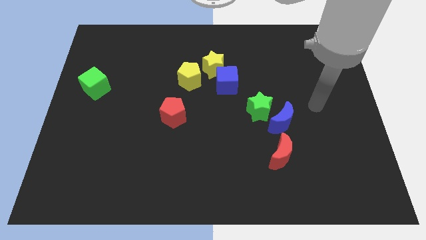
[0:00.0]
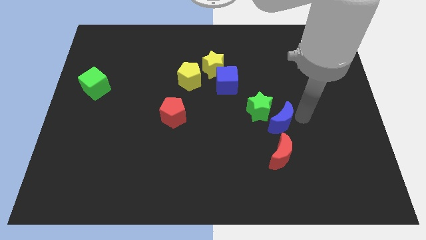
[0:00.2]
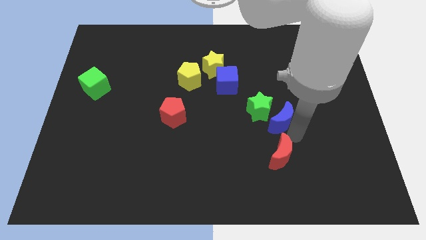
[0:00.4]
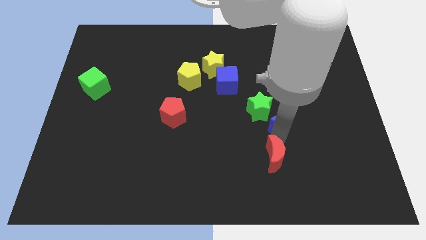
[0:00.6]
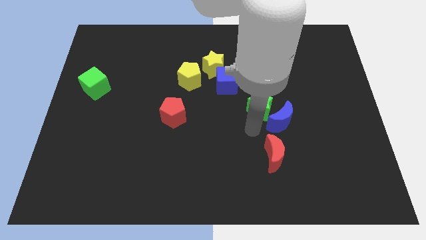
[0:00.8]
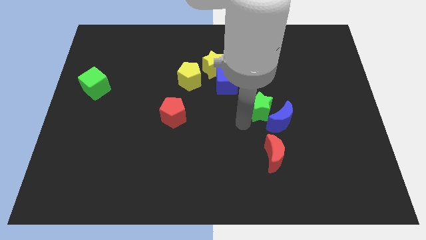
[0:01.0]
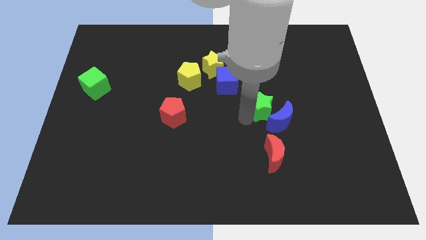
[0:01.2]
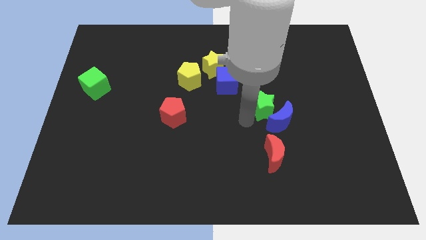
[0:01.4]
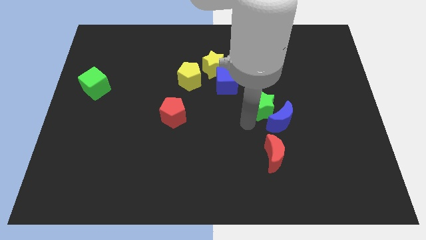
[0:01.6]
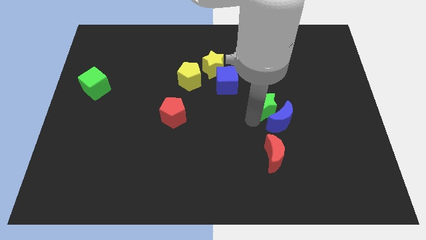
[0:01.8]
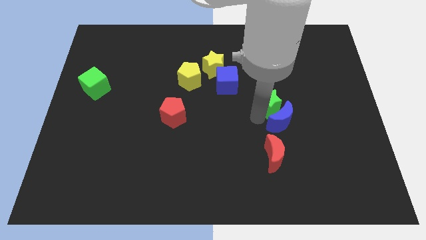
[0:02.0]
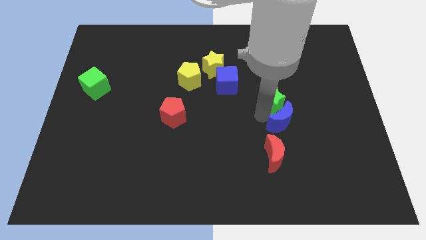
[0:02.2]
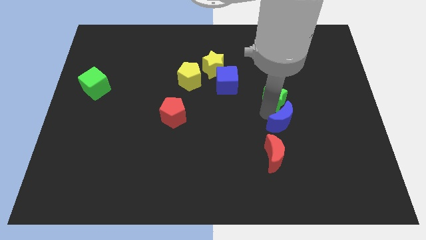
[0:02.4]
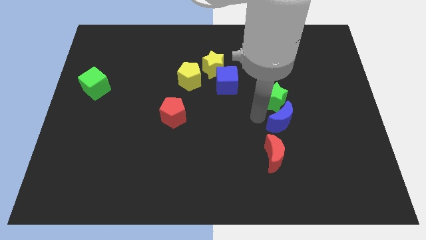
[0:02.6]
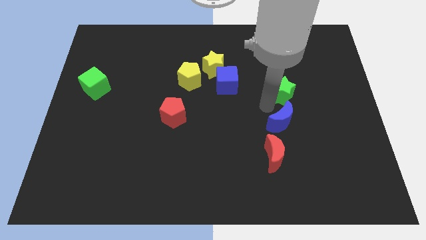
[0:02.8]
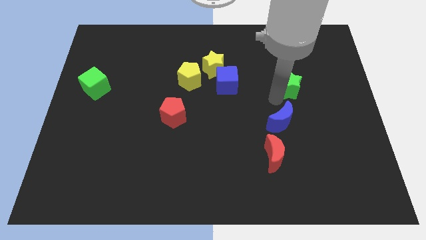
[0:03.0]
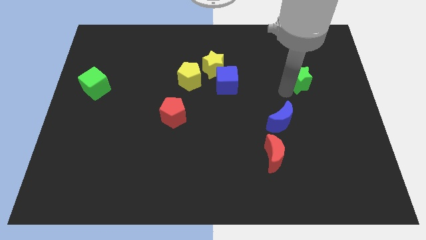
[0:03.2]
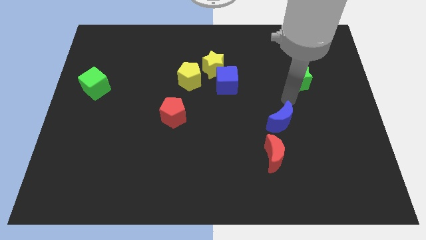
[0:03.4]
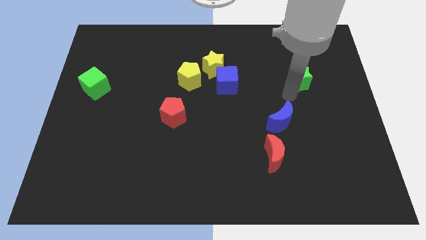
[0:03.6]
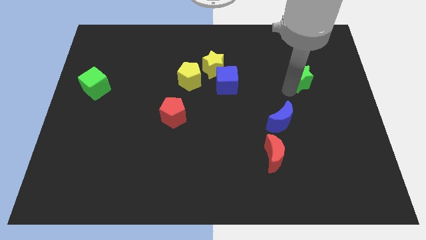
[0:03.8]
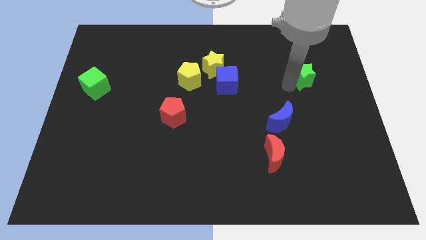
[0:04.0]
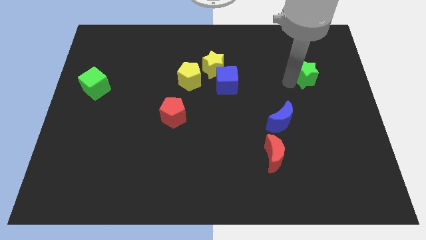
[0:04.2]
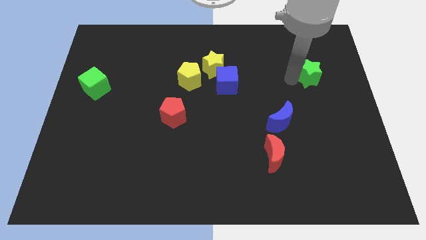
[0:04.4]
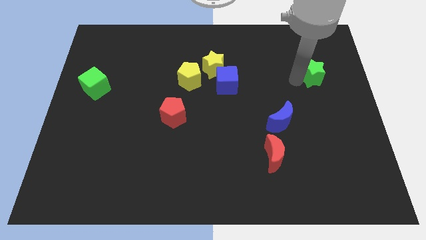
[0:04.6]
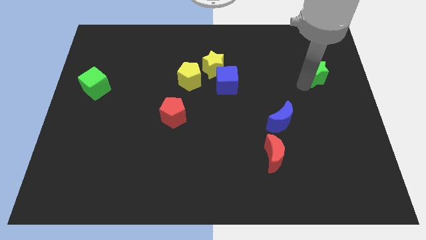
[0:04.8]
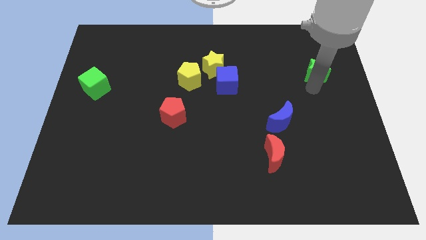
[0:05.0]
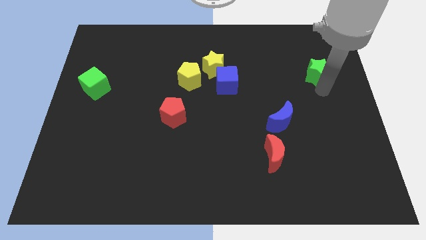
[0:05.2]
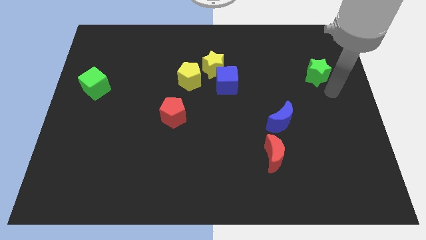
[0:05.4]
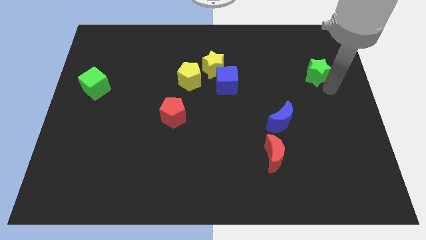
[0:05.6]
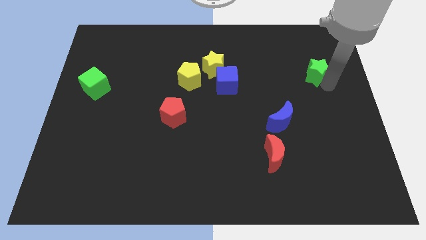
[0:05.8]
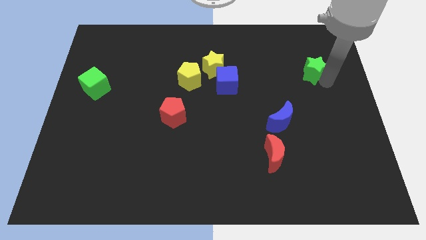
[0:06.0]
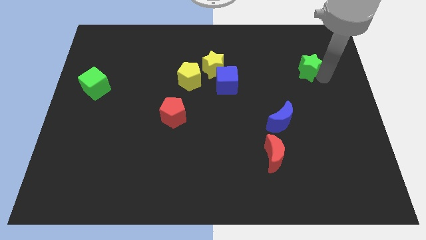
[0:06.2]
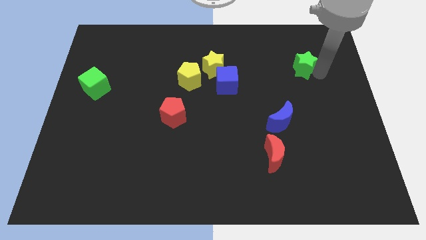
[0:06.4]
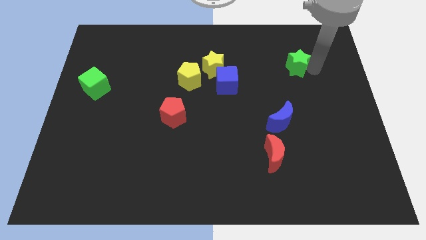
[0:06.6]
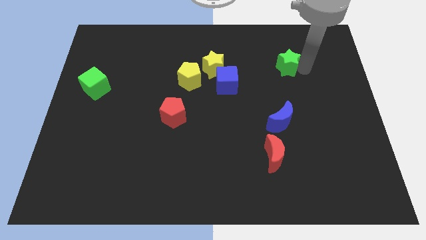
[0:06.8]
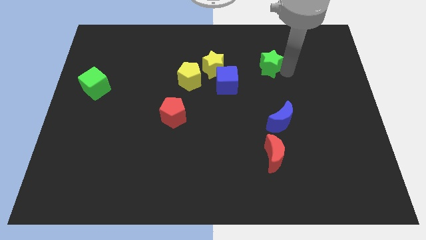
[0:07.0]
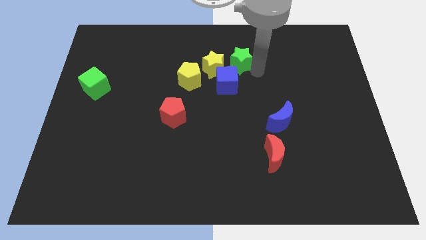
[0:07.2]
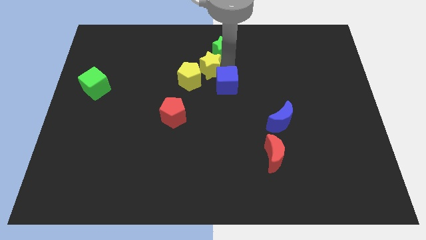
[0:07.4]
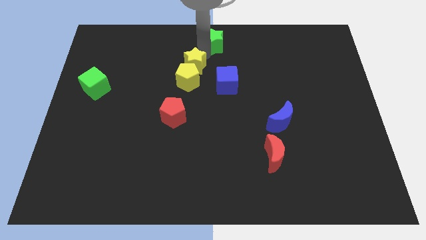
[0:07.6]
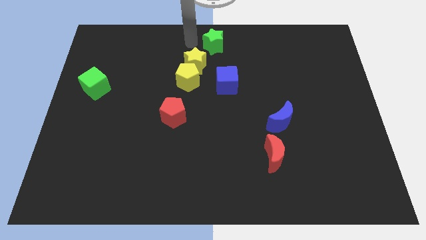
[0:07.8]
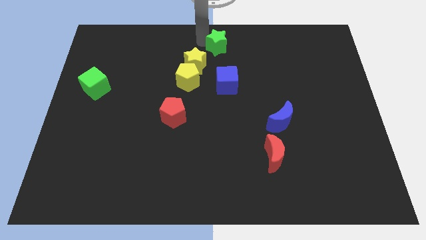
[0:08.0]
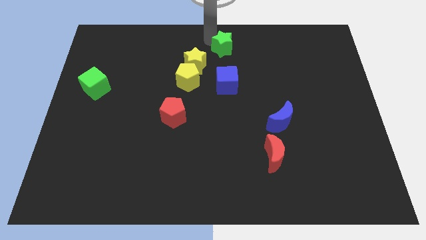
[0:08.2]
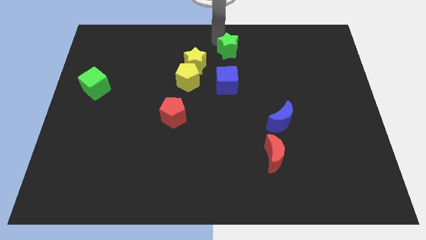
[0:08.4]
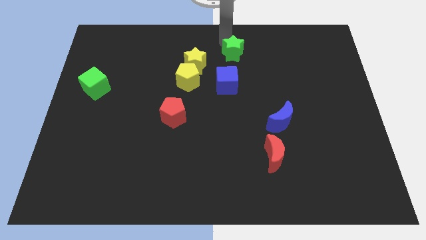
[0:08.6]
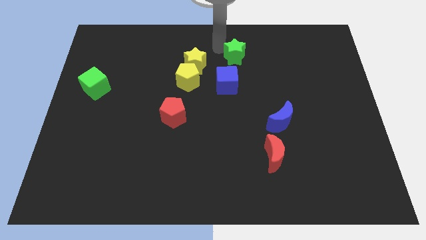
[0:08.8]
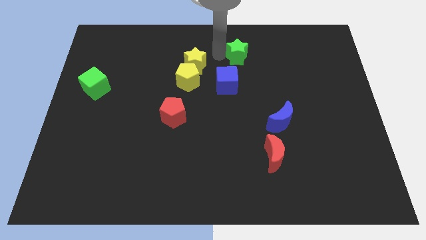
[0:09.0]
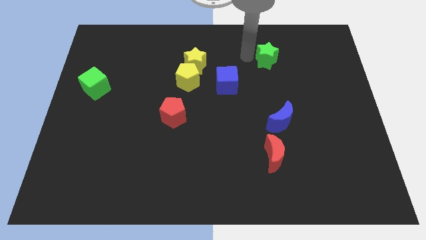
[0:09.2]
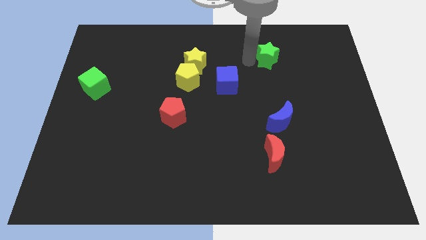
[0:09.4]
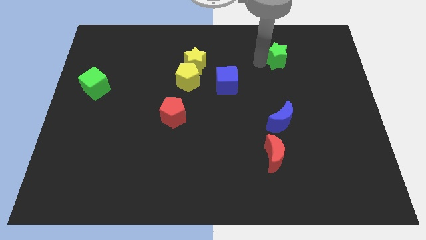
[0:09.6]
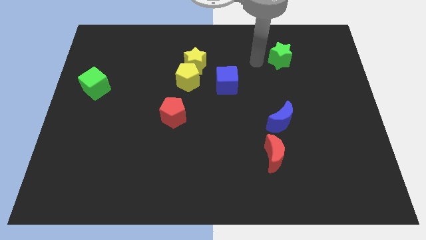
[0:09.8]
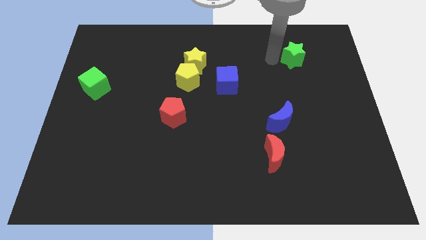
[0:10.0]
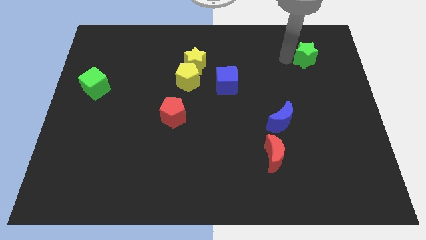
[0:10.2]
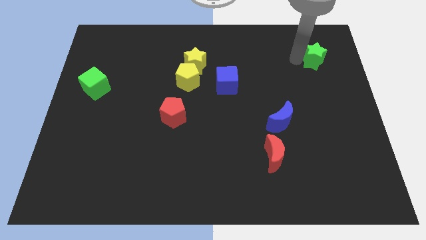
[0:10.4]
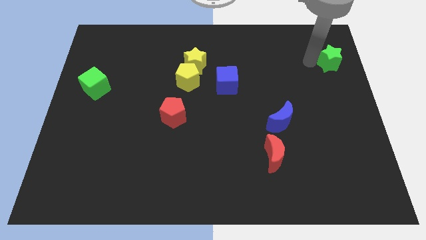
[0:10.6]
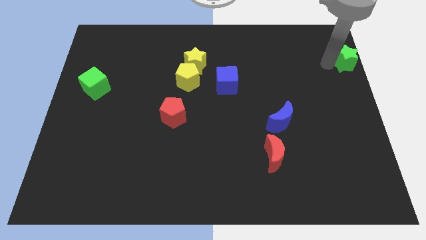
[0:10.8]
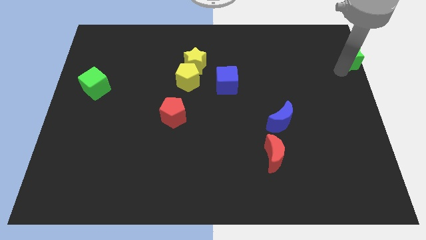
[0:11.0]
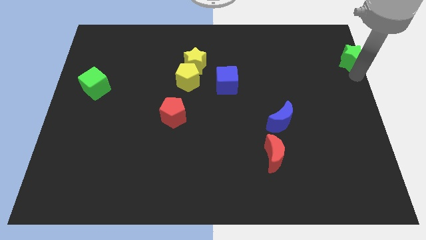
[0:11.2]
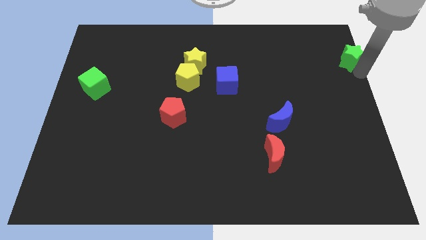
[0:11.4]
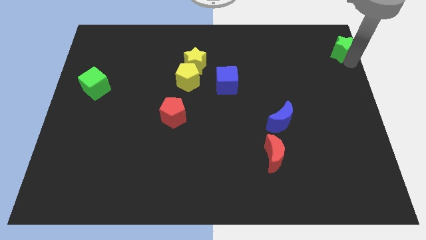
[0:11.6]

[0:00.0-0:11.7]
move the green star to the top right of the board

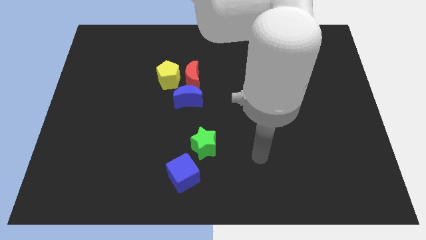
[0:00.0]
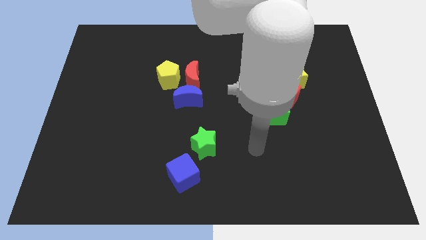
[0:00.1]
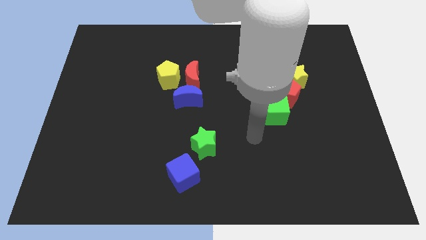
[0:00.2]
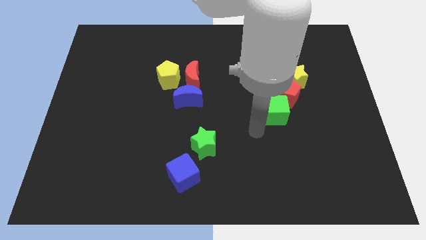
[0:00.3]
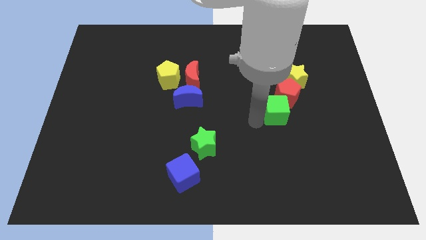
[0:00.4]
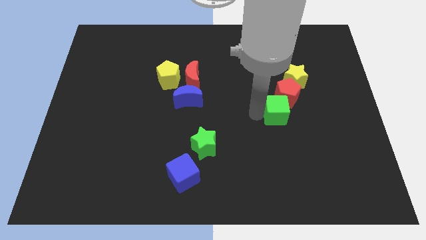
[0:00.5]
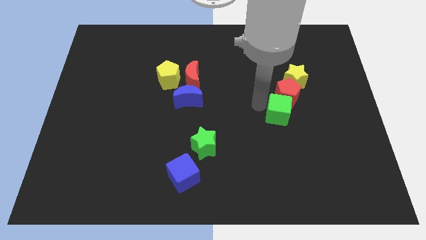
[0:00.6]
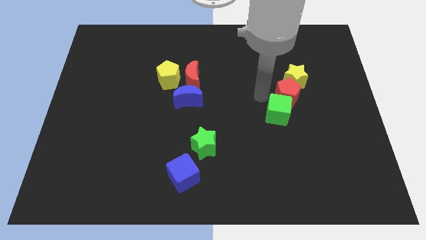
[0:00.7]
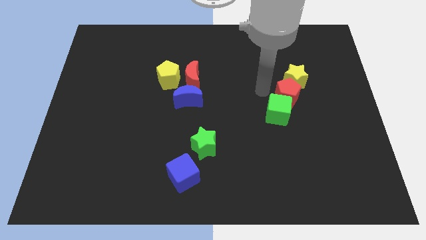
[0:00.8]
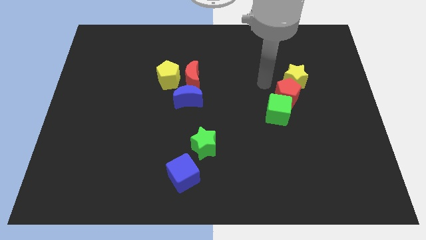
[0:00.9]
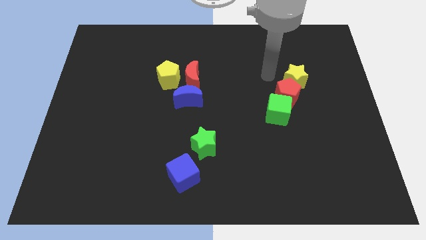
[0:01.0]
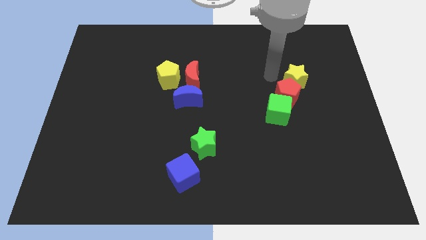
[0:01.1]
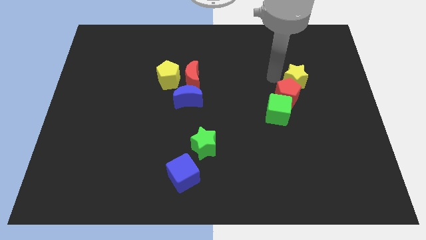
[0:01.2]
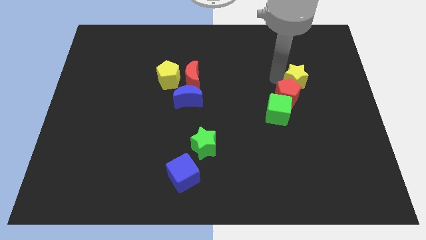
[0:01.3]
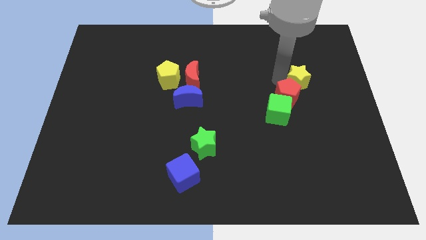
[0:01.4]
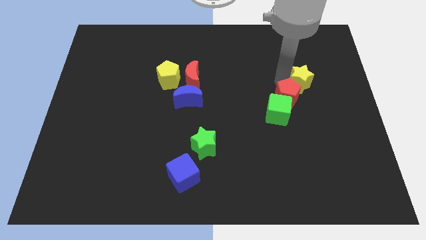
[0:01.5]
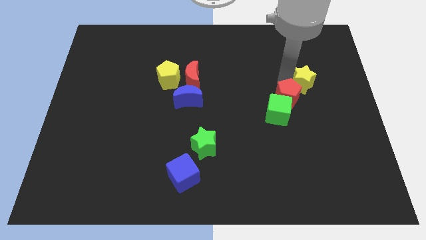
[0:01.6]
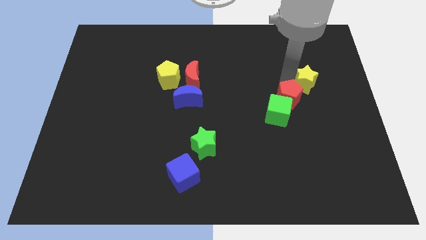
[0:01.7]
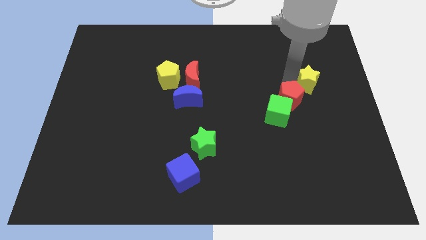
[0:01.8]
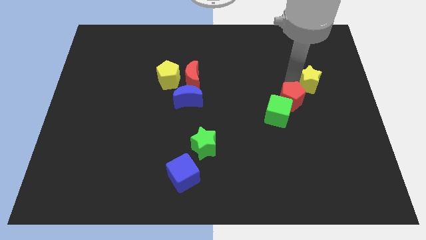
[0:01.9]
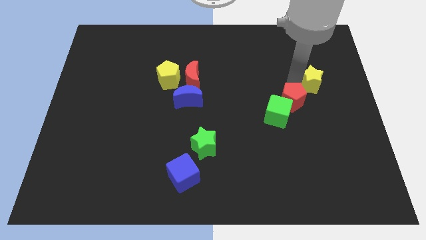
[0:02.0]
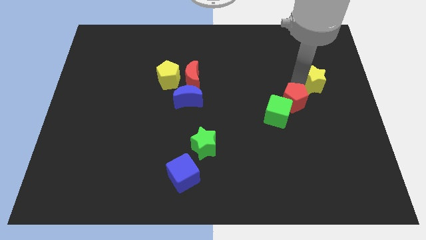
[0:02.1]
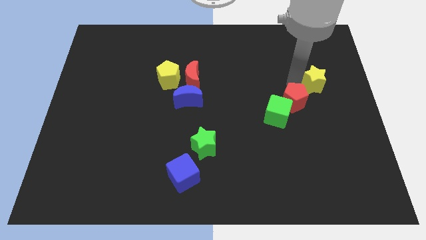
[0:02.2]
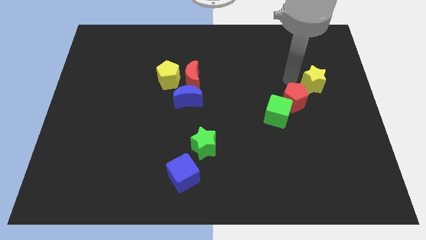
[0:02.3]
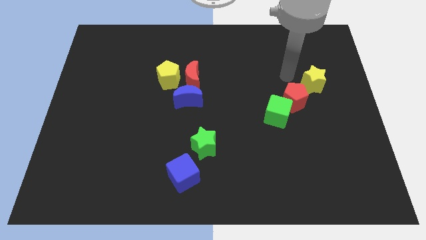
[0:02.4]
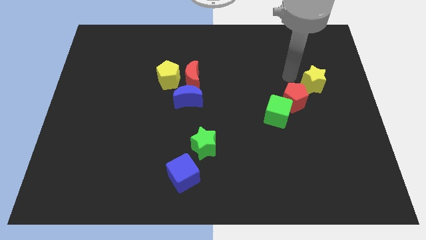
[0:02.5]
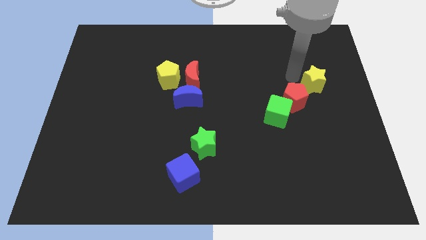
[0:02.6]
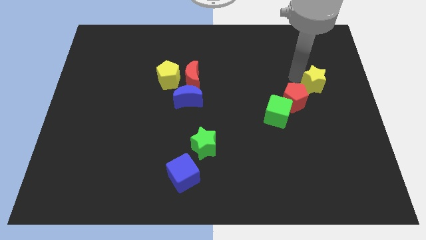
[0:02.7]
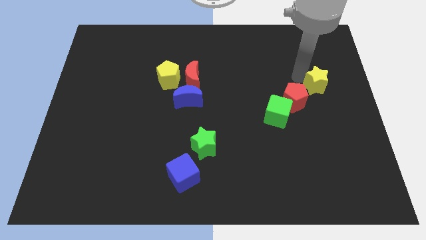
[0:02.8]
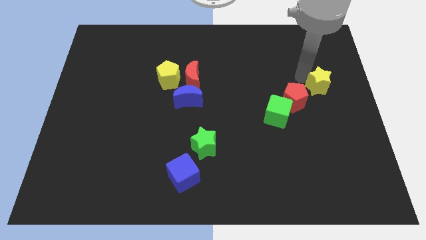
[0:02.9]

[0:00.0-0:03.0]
push the yellow star to the right side
